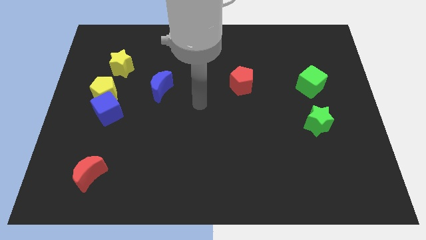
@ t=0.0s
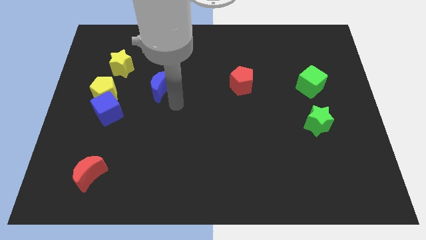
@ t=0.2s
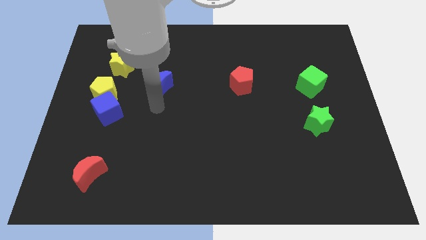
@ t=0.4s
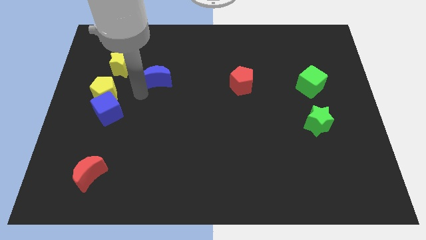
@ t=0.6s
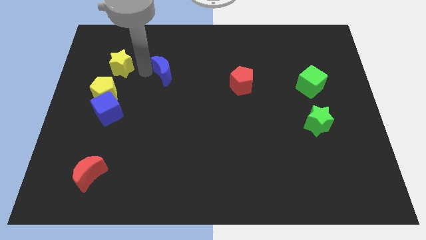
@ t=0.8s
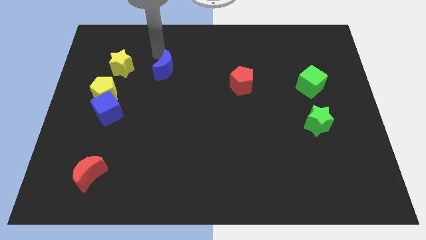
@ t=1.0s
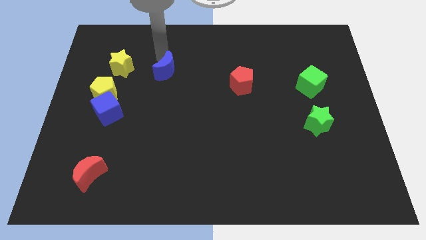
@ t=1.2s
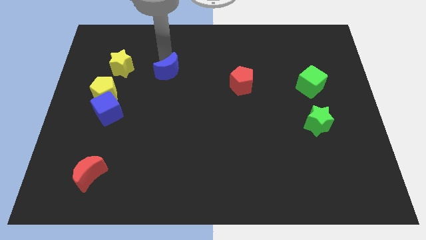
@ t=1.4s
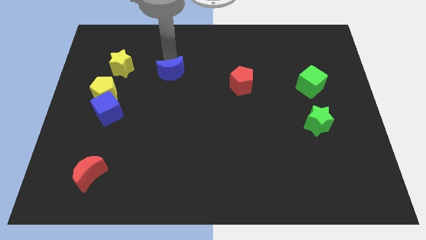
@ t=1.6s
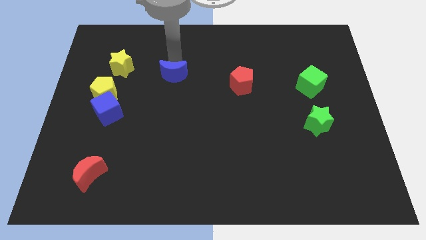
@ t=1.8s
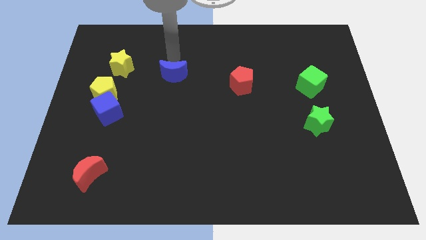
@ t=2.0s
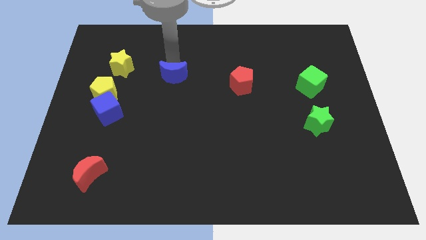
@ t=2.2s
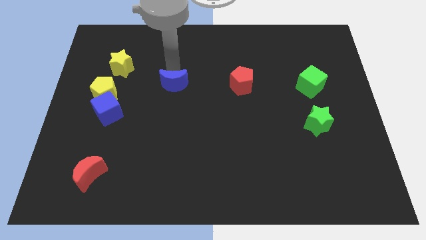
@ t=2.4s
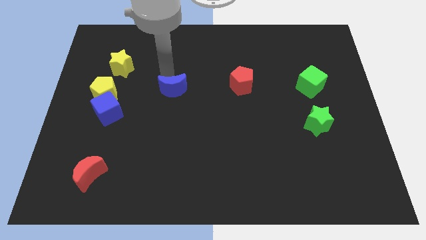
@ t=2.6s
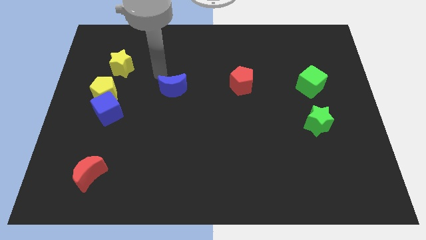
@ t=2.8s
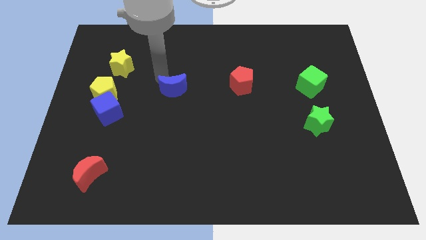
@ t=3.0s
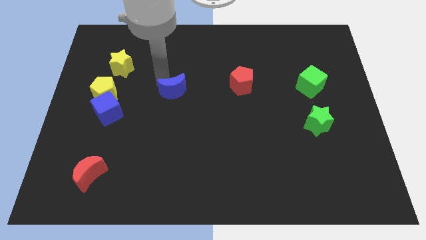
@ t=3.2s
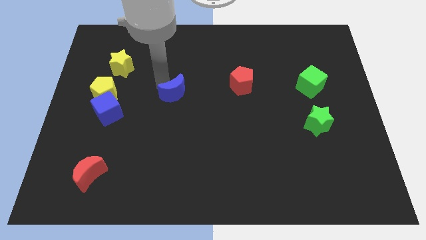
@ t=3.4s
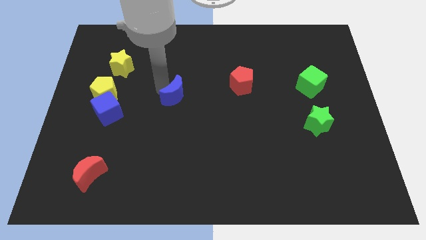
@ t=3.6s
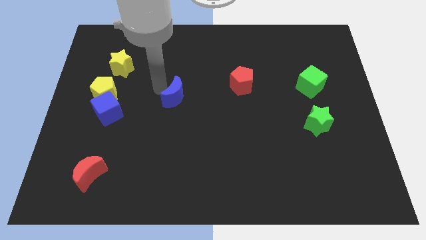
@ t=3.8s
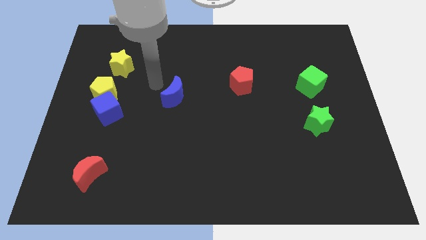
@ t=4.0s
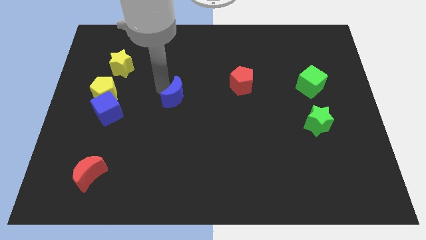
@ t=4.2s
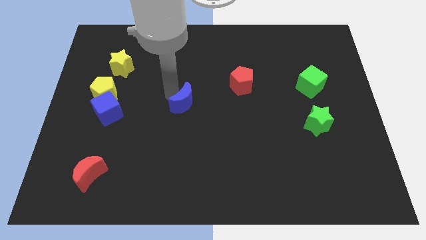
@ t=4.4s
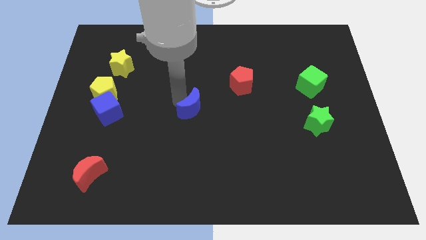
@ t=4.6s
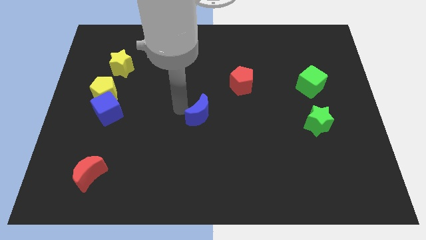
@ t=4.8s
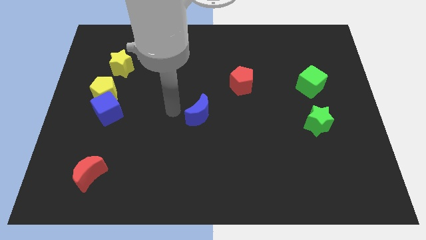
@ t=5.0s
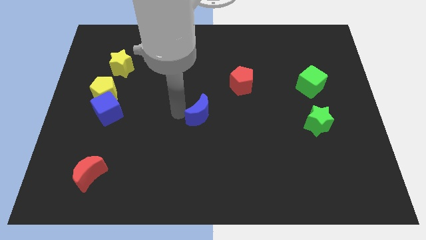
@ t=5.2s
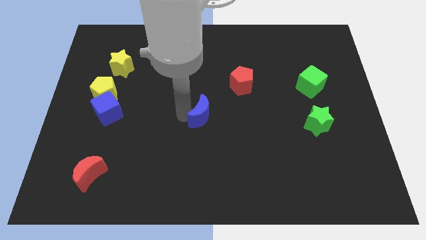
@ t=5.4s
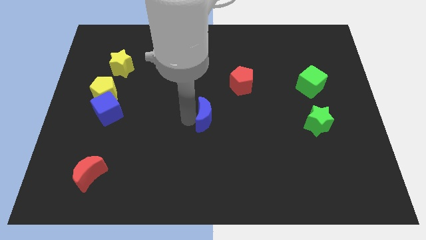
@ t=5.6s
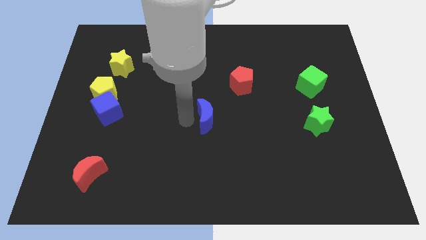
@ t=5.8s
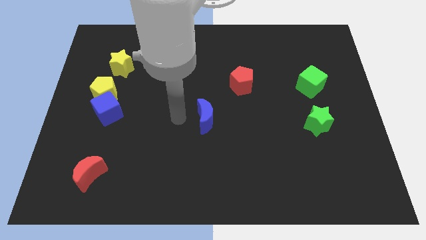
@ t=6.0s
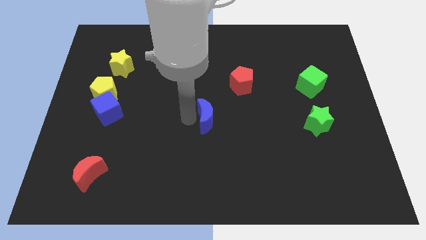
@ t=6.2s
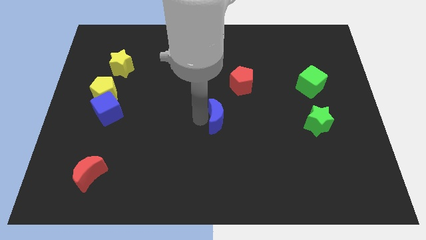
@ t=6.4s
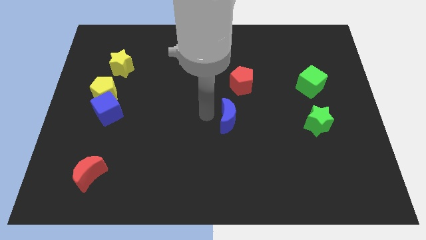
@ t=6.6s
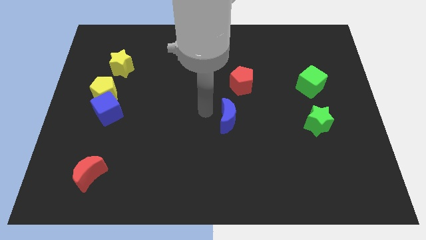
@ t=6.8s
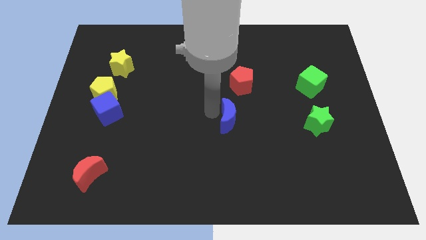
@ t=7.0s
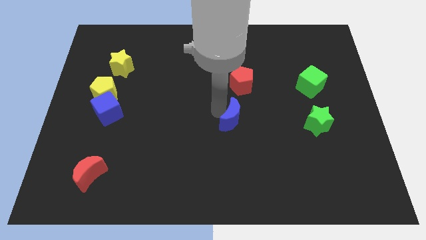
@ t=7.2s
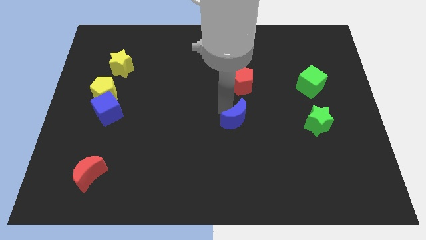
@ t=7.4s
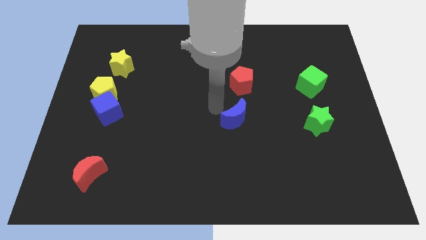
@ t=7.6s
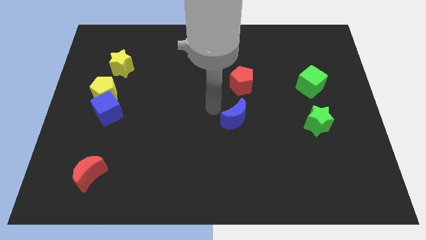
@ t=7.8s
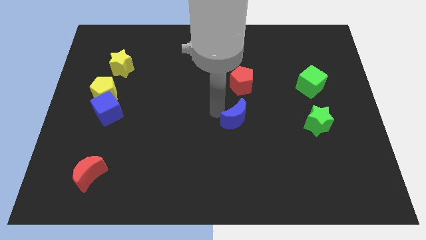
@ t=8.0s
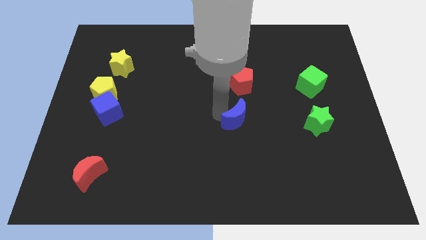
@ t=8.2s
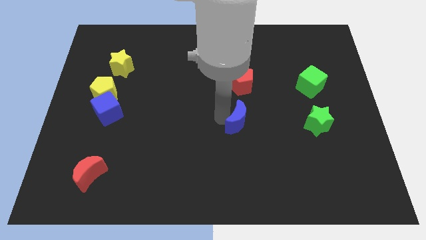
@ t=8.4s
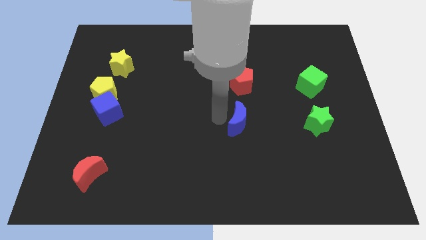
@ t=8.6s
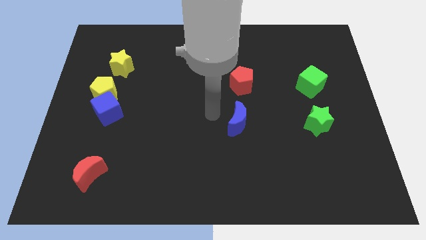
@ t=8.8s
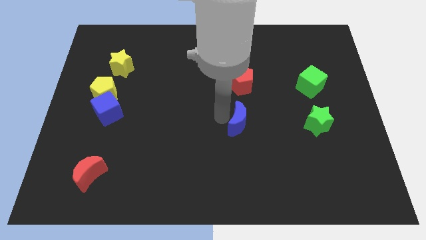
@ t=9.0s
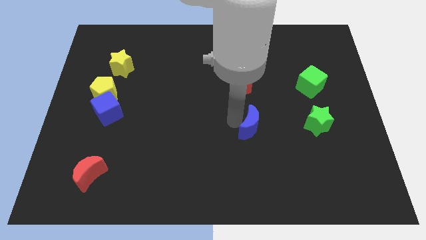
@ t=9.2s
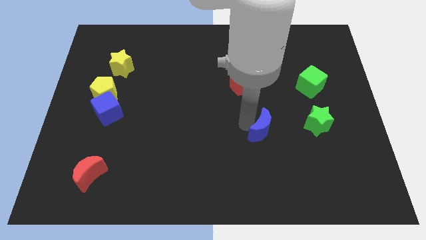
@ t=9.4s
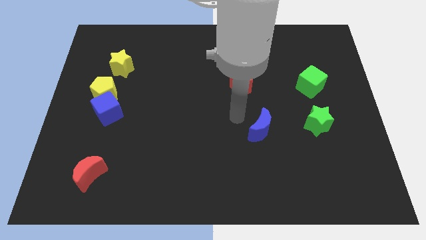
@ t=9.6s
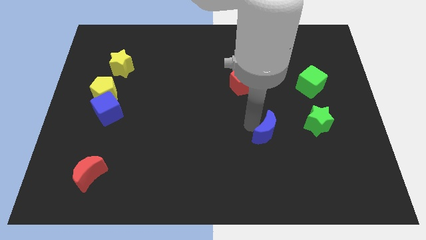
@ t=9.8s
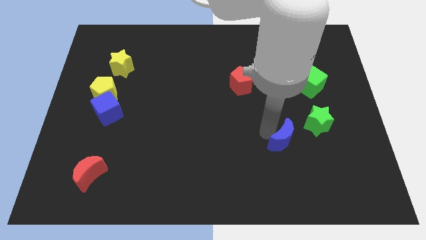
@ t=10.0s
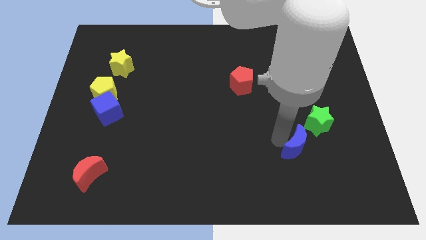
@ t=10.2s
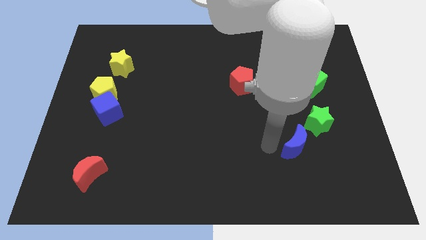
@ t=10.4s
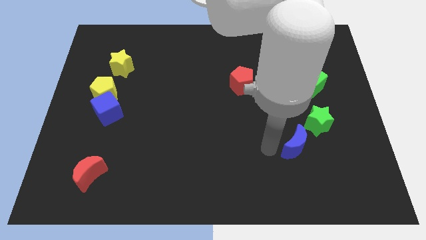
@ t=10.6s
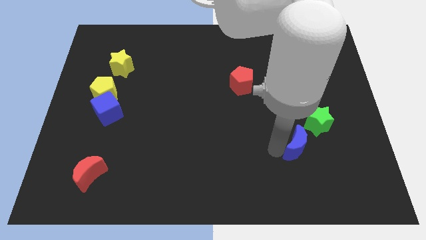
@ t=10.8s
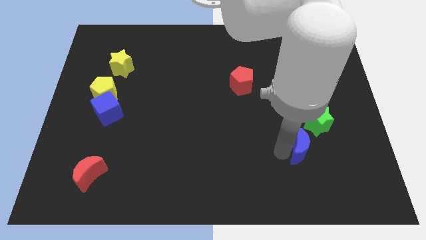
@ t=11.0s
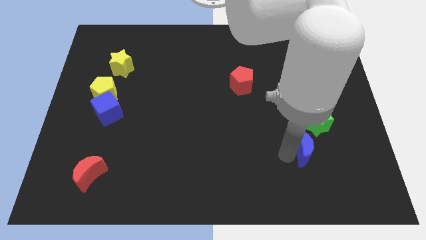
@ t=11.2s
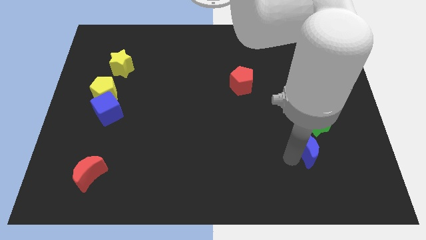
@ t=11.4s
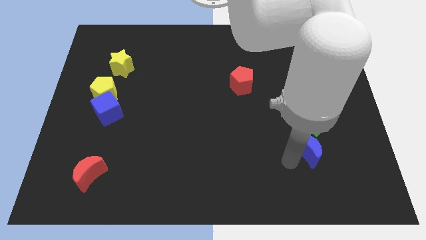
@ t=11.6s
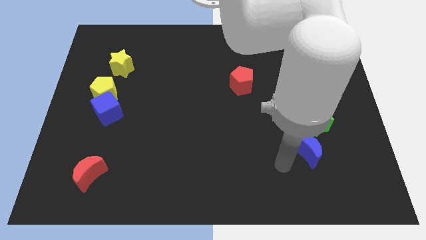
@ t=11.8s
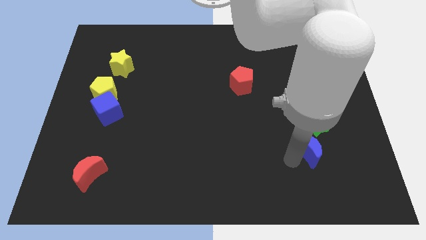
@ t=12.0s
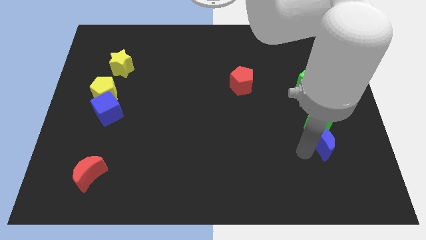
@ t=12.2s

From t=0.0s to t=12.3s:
put the blue moon to the bottom right of the green star

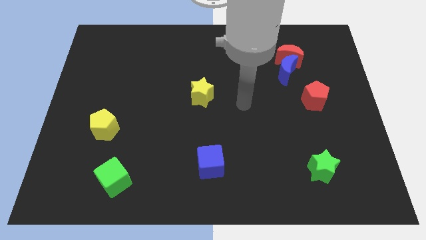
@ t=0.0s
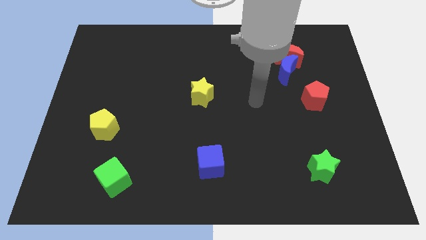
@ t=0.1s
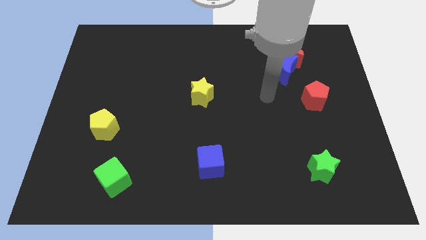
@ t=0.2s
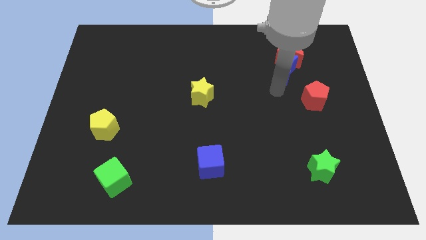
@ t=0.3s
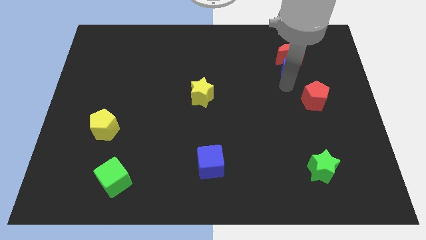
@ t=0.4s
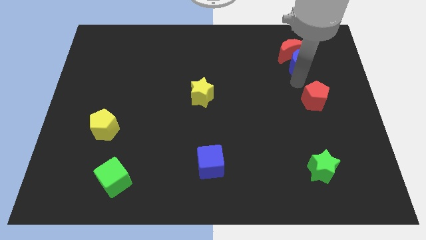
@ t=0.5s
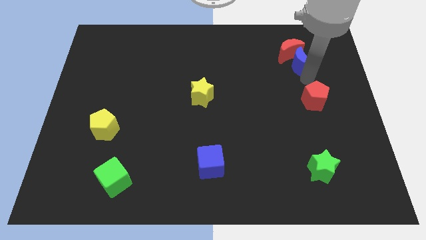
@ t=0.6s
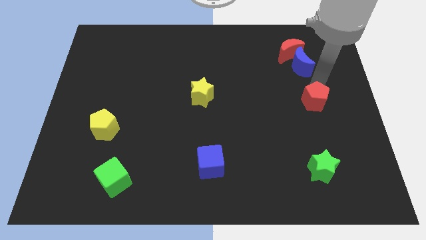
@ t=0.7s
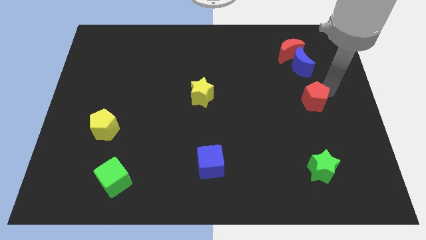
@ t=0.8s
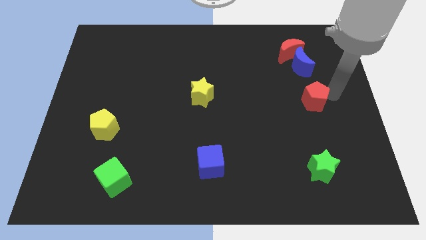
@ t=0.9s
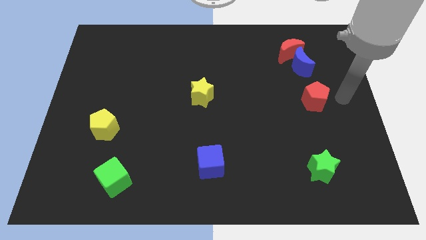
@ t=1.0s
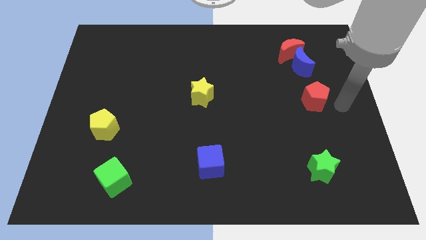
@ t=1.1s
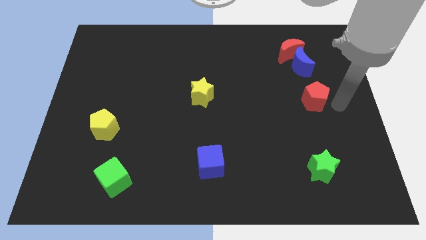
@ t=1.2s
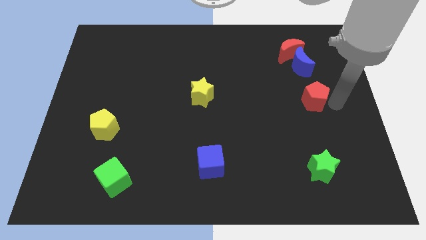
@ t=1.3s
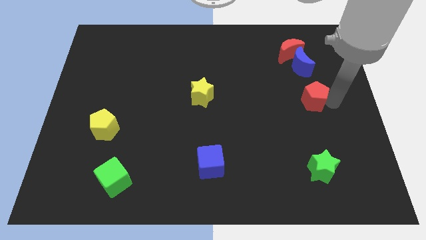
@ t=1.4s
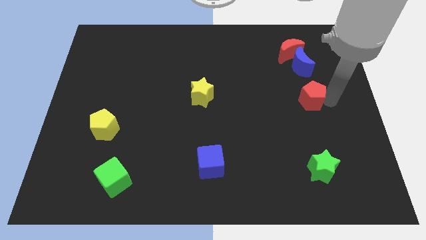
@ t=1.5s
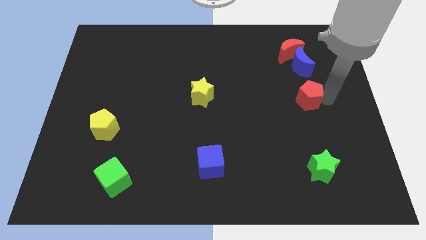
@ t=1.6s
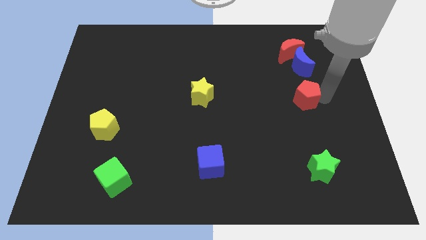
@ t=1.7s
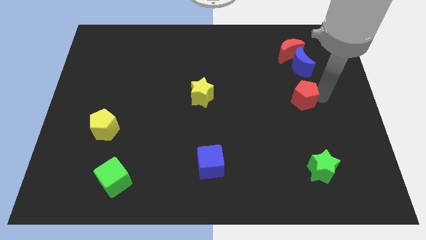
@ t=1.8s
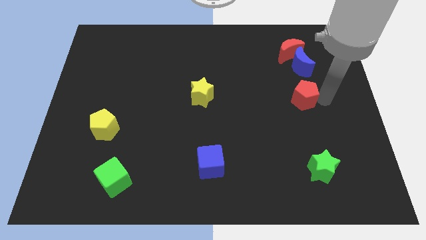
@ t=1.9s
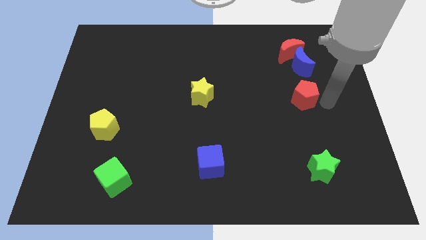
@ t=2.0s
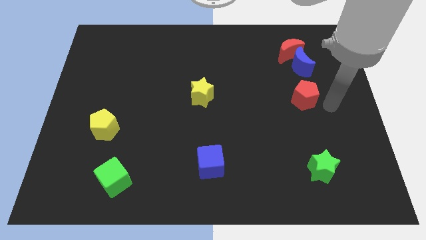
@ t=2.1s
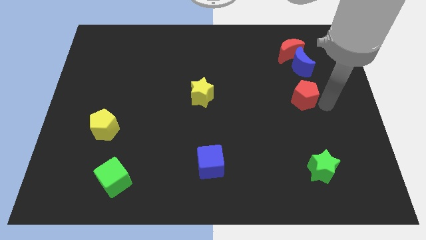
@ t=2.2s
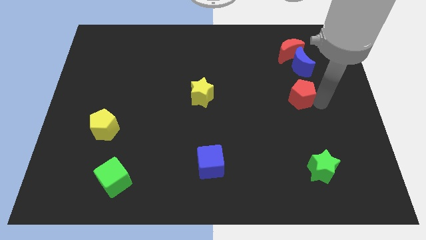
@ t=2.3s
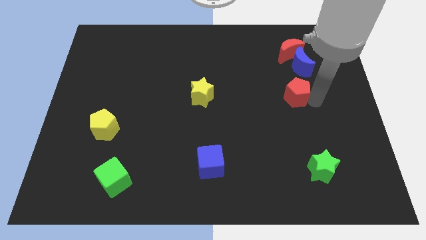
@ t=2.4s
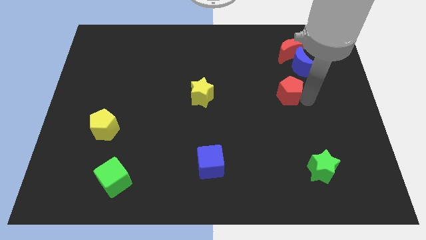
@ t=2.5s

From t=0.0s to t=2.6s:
move the red pentagon to the bottom left of the blue moon
